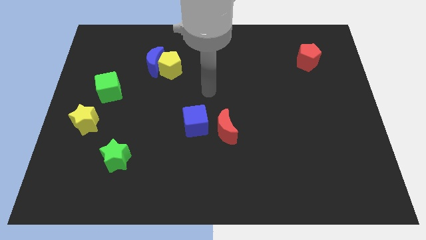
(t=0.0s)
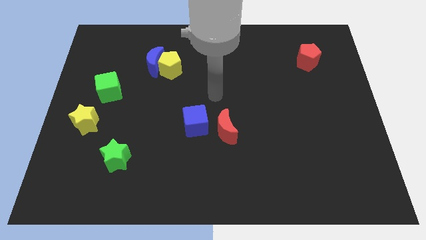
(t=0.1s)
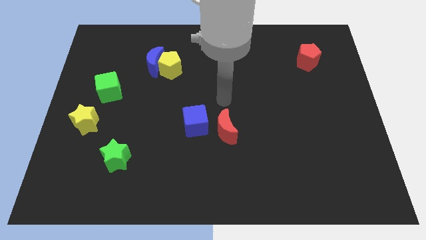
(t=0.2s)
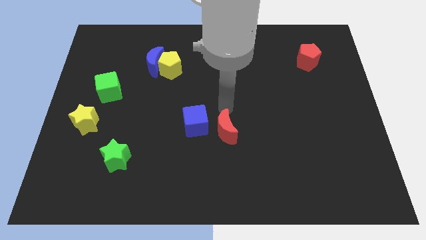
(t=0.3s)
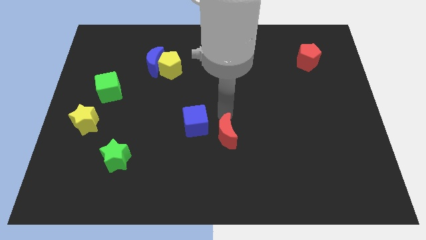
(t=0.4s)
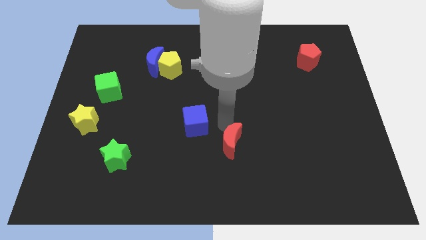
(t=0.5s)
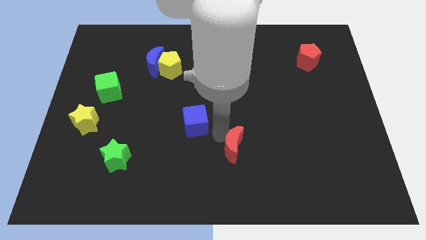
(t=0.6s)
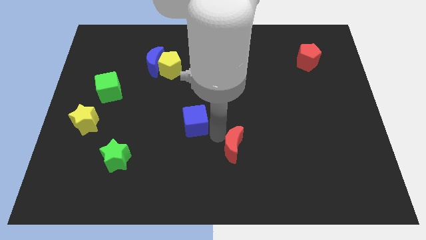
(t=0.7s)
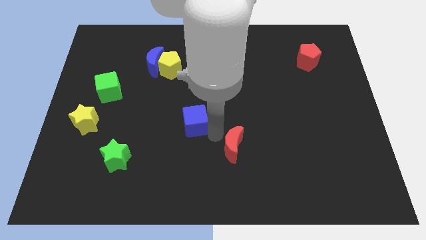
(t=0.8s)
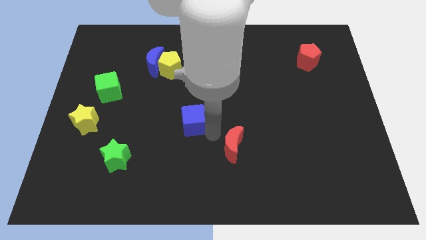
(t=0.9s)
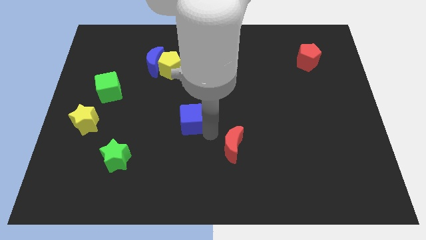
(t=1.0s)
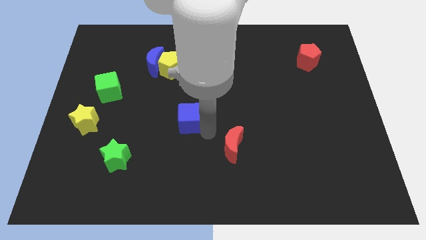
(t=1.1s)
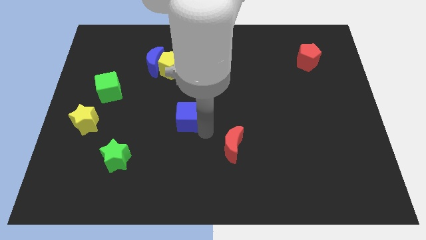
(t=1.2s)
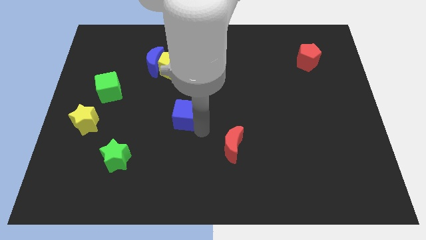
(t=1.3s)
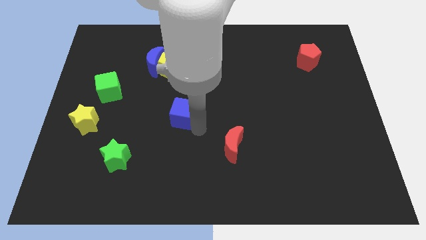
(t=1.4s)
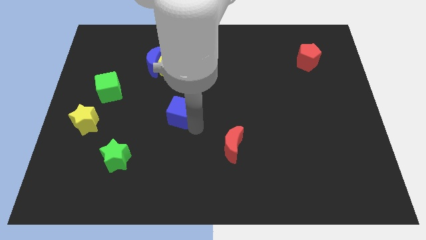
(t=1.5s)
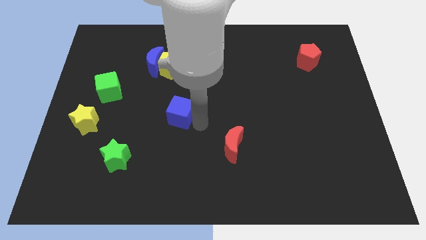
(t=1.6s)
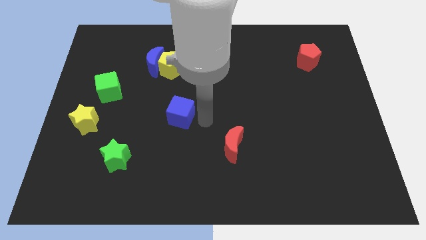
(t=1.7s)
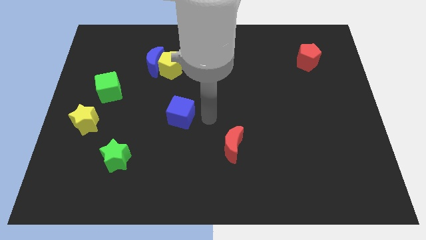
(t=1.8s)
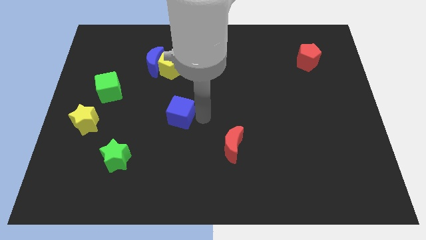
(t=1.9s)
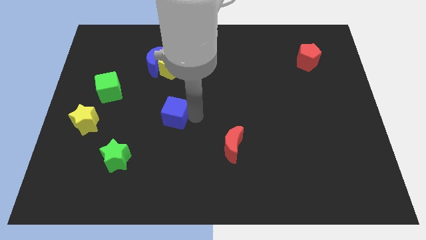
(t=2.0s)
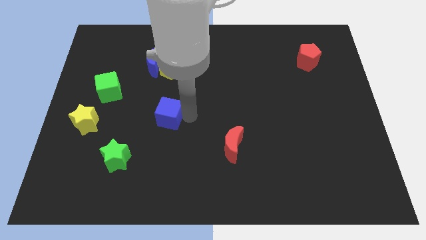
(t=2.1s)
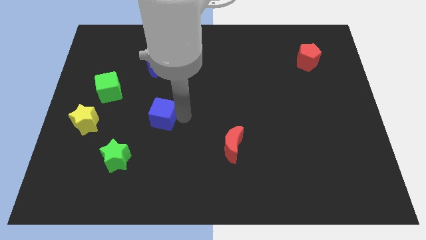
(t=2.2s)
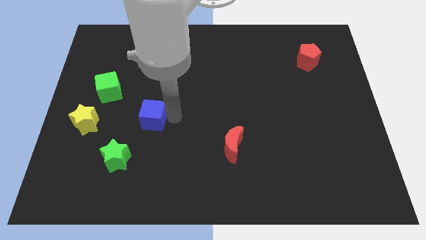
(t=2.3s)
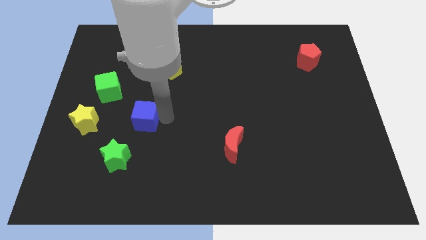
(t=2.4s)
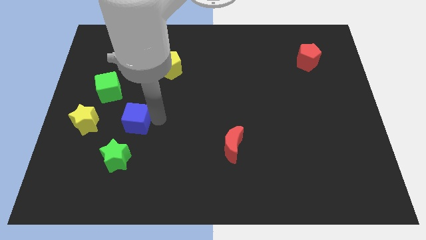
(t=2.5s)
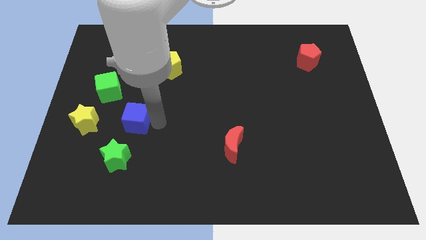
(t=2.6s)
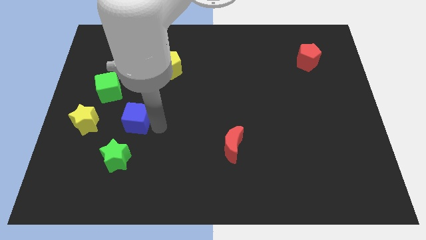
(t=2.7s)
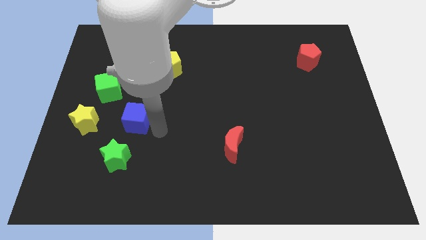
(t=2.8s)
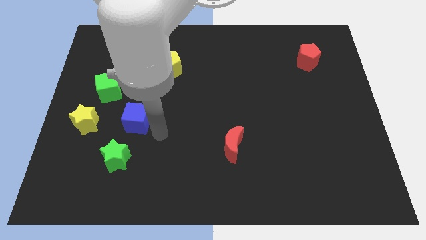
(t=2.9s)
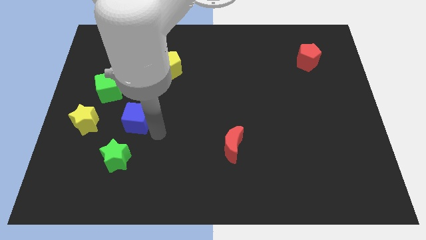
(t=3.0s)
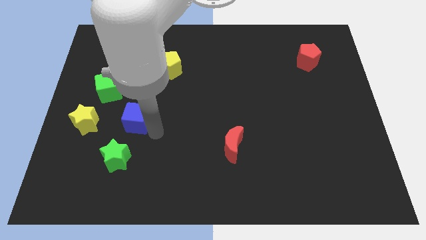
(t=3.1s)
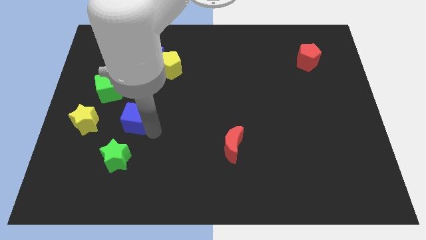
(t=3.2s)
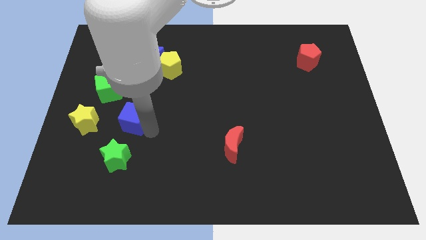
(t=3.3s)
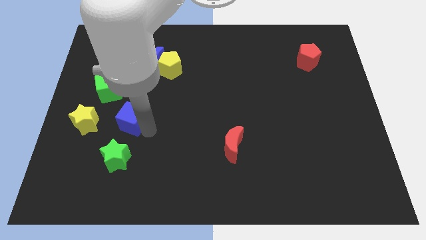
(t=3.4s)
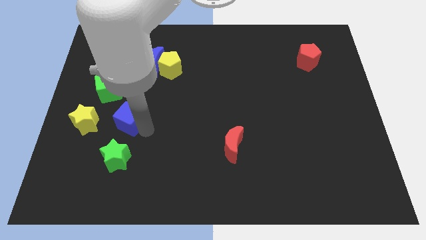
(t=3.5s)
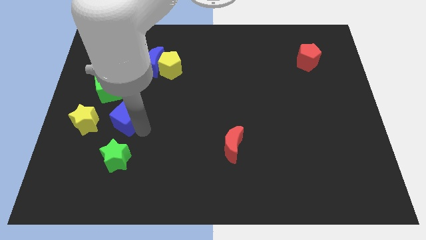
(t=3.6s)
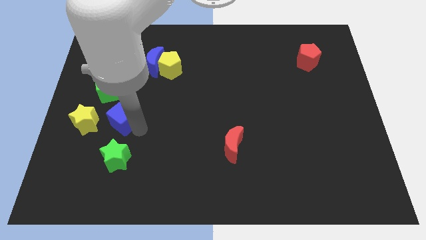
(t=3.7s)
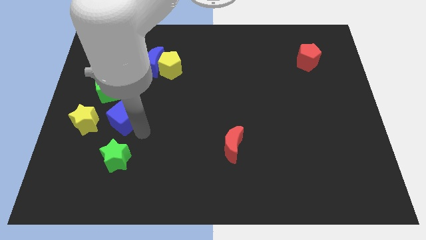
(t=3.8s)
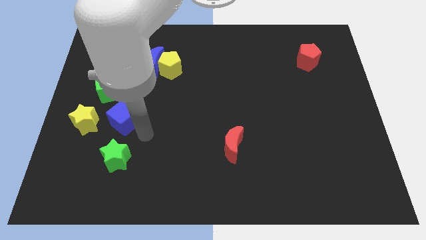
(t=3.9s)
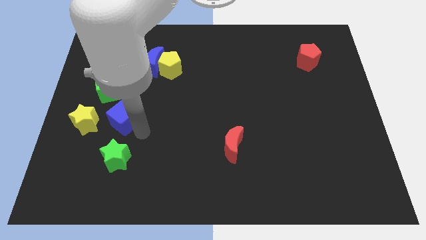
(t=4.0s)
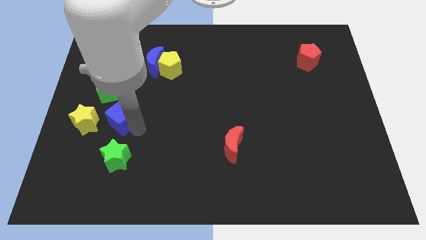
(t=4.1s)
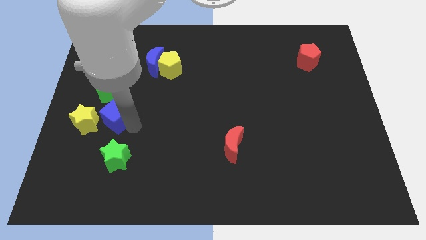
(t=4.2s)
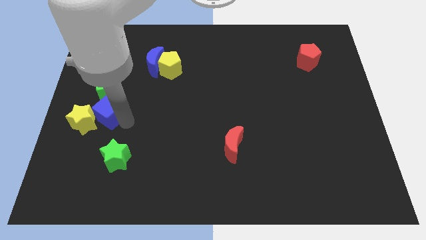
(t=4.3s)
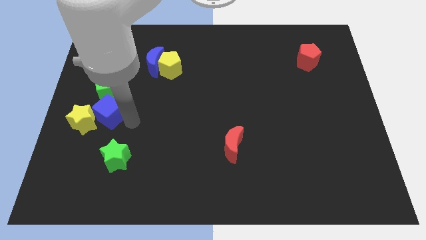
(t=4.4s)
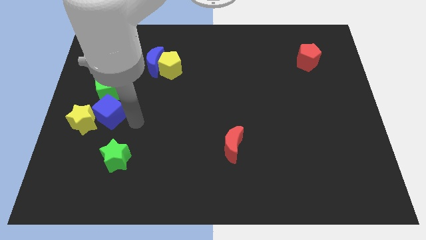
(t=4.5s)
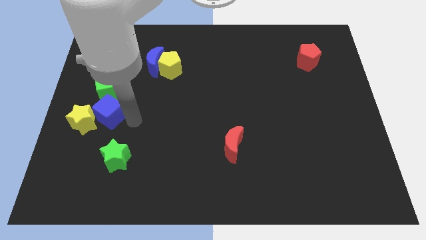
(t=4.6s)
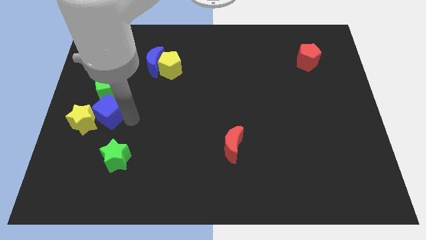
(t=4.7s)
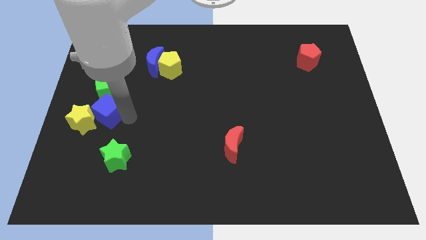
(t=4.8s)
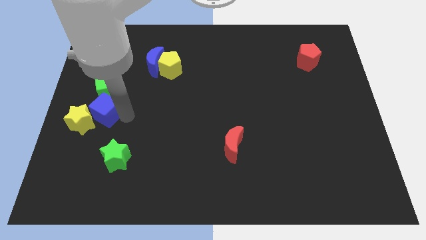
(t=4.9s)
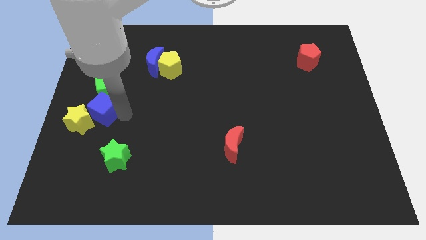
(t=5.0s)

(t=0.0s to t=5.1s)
move the blue cube to the left side of the board

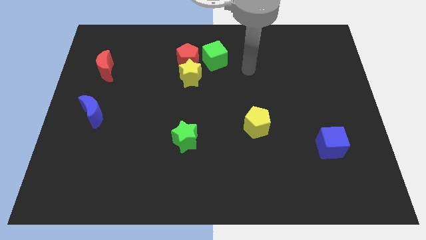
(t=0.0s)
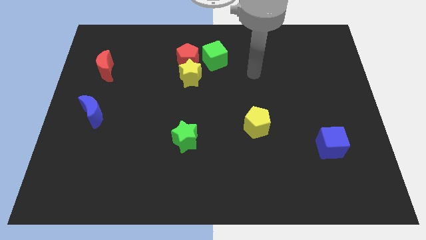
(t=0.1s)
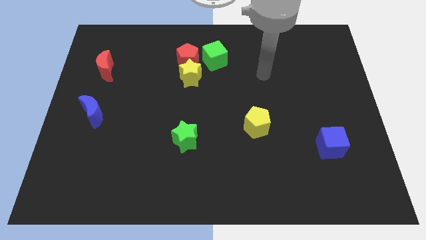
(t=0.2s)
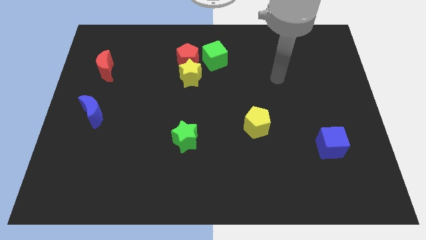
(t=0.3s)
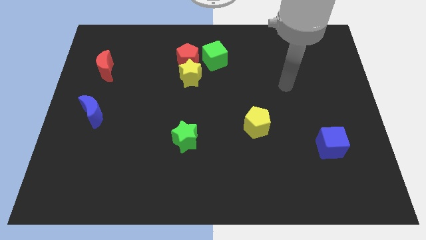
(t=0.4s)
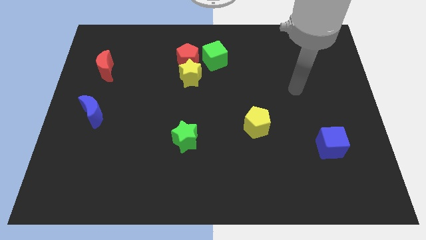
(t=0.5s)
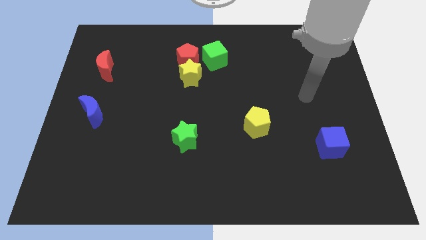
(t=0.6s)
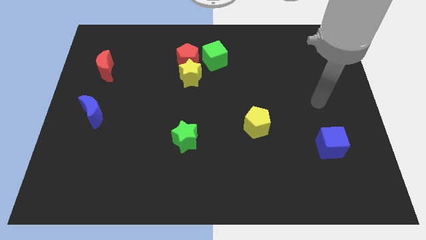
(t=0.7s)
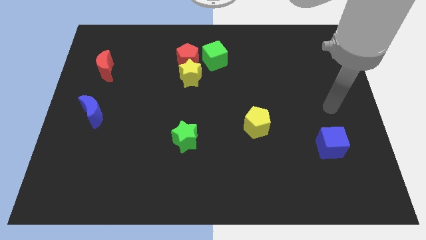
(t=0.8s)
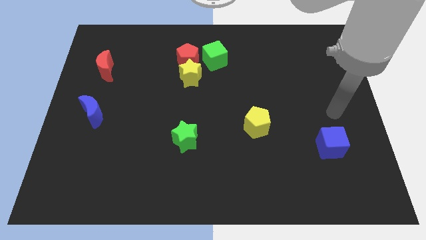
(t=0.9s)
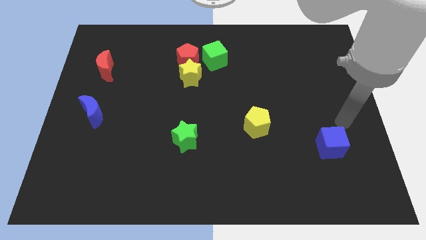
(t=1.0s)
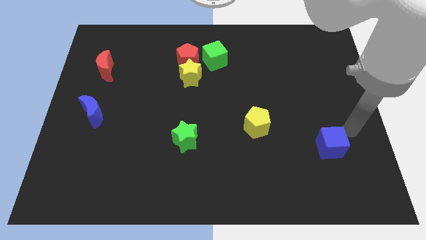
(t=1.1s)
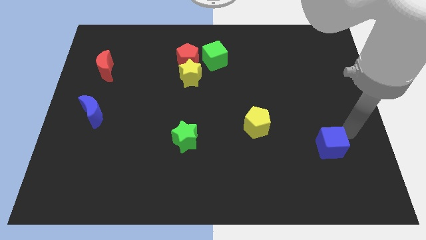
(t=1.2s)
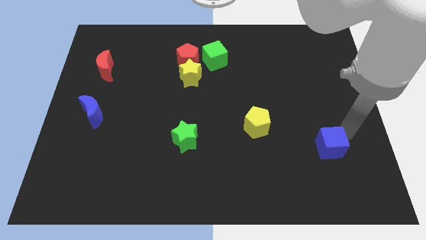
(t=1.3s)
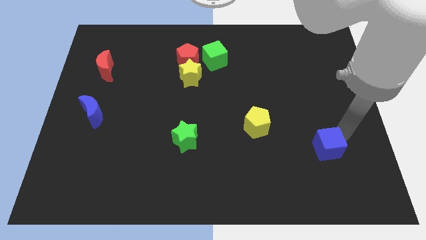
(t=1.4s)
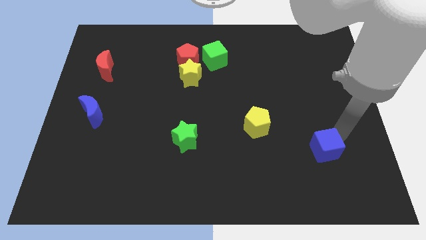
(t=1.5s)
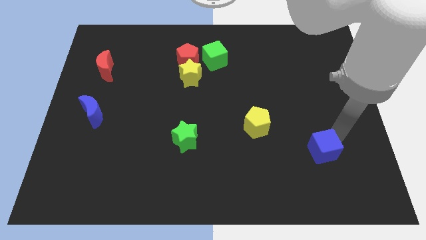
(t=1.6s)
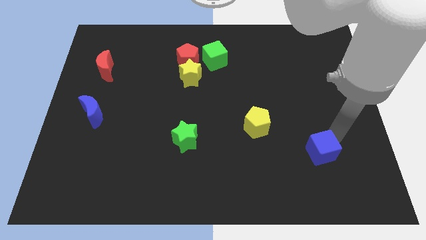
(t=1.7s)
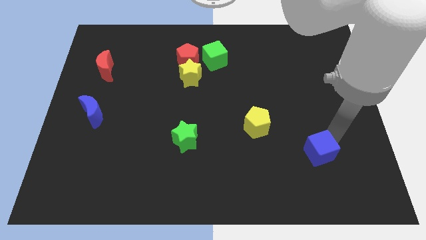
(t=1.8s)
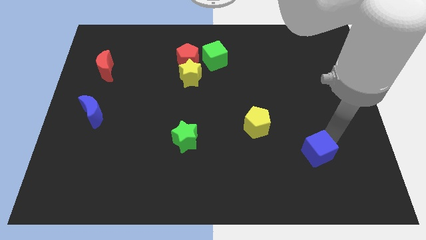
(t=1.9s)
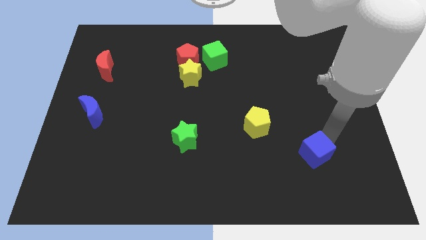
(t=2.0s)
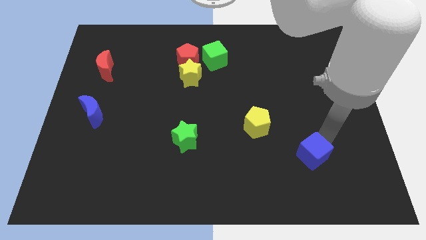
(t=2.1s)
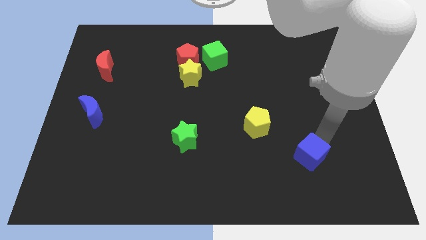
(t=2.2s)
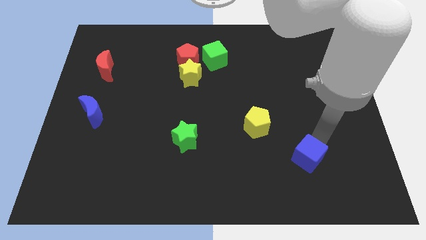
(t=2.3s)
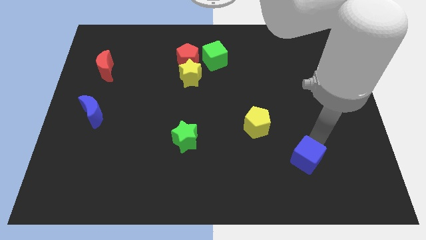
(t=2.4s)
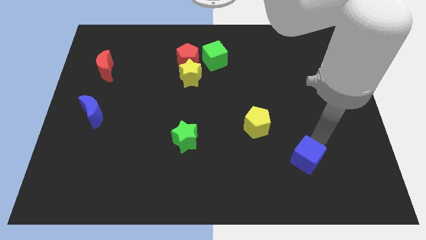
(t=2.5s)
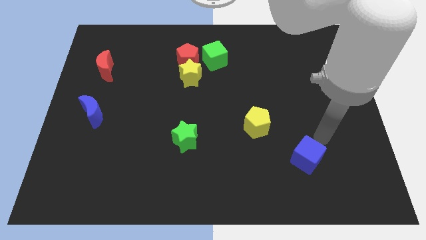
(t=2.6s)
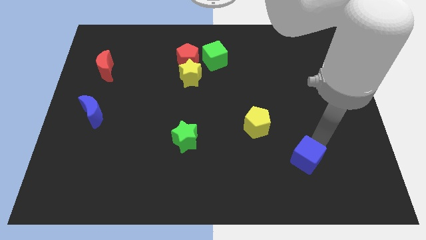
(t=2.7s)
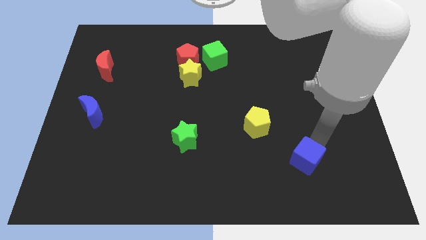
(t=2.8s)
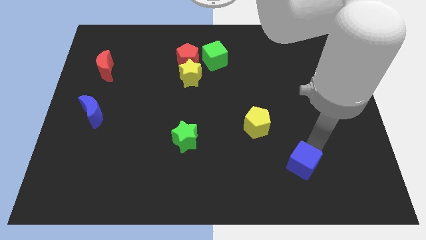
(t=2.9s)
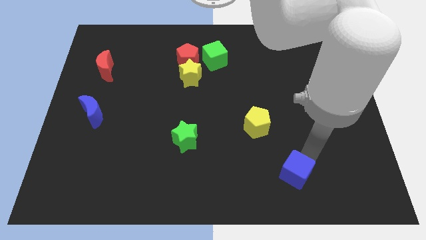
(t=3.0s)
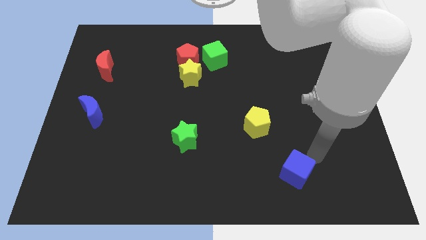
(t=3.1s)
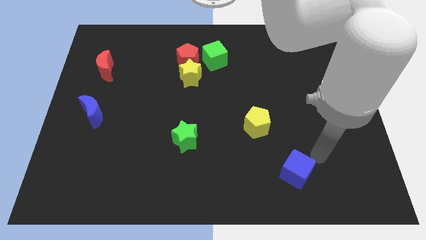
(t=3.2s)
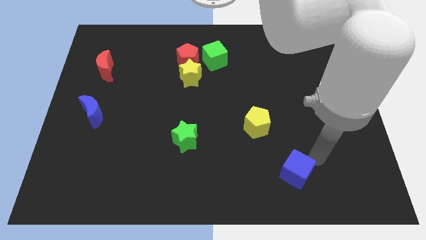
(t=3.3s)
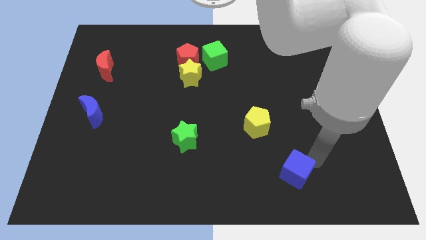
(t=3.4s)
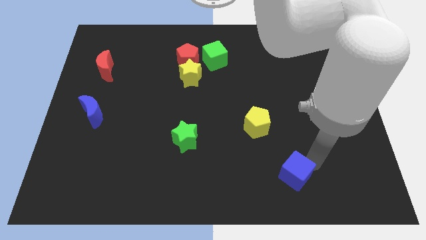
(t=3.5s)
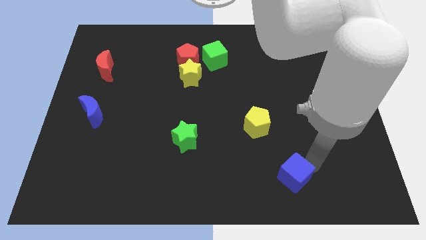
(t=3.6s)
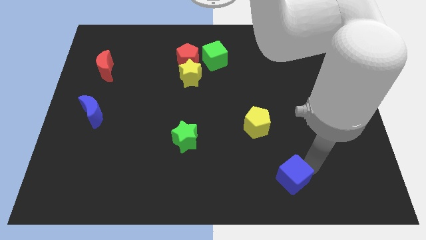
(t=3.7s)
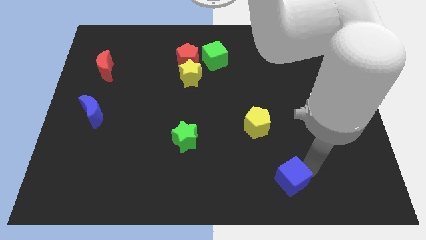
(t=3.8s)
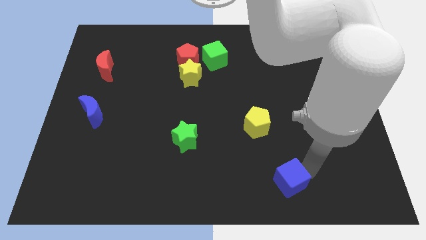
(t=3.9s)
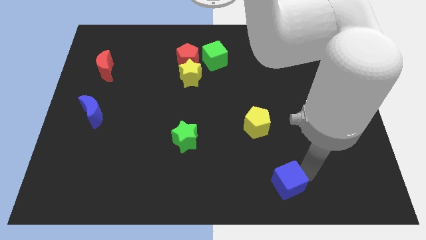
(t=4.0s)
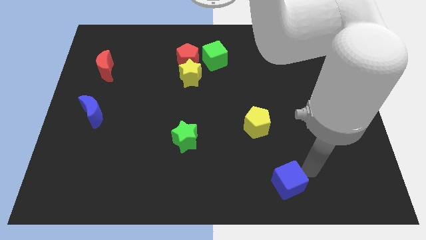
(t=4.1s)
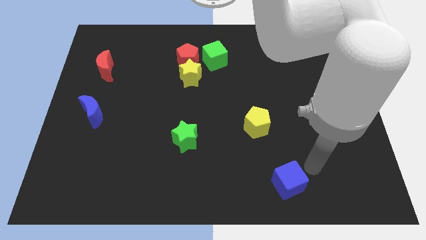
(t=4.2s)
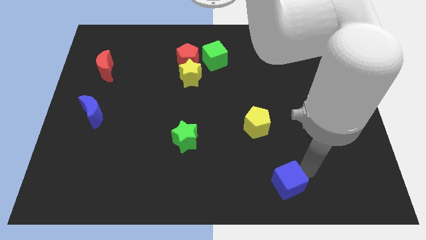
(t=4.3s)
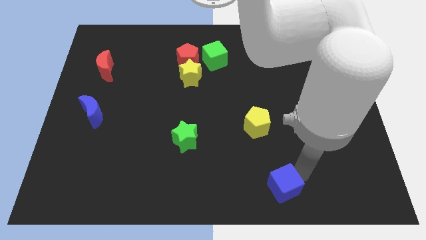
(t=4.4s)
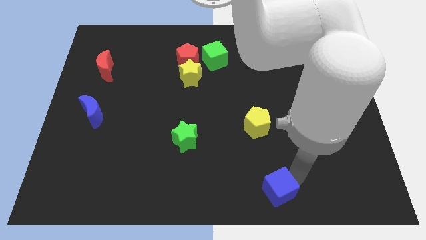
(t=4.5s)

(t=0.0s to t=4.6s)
slide the blue cube to the bottom side
